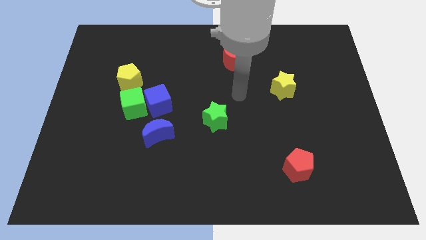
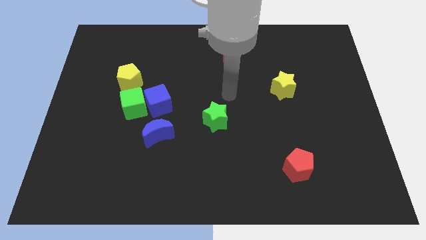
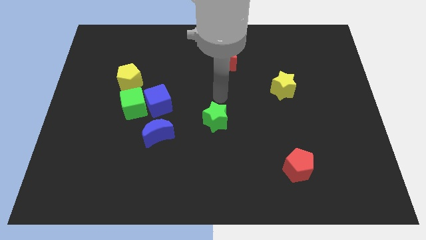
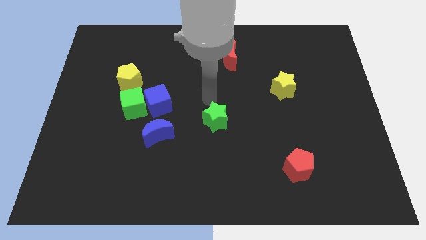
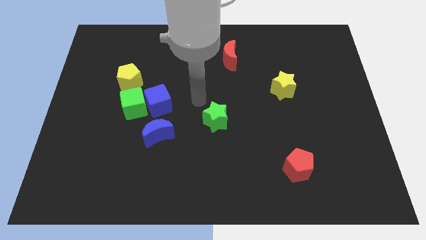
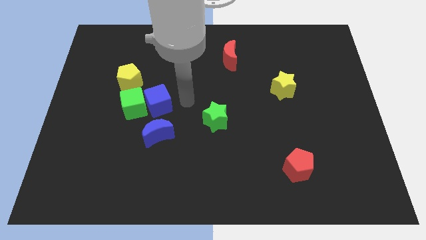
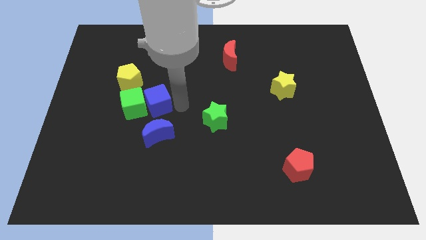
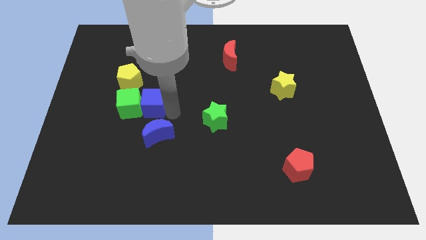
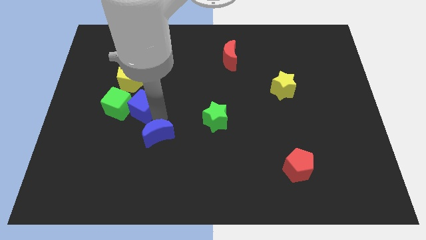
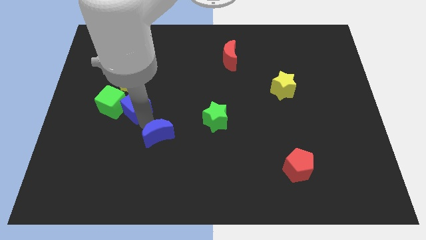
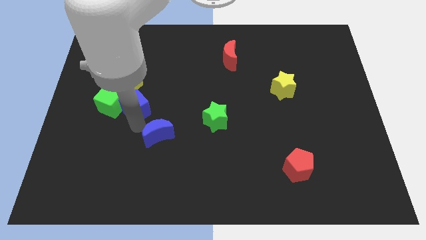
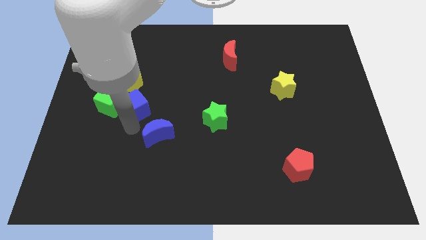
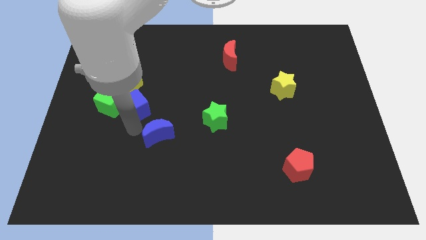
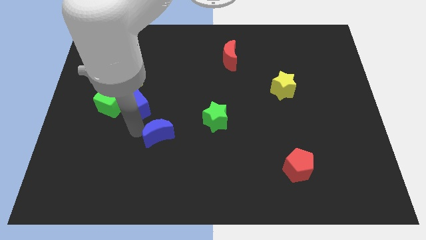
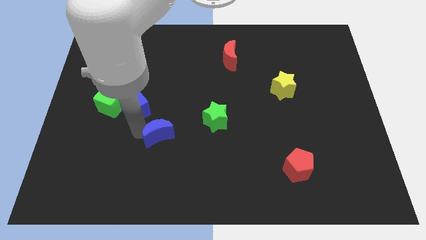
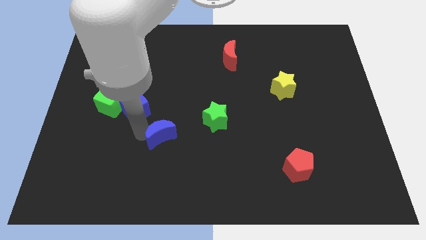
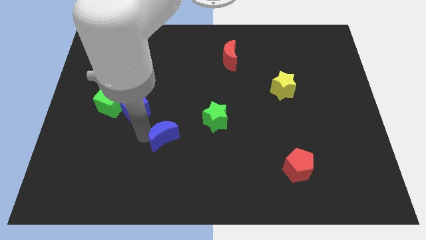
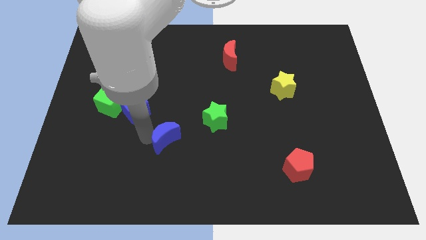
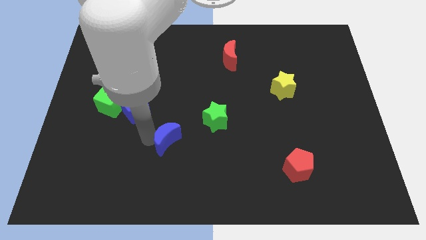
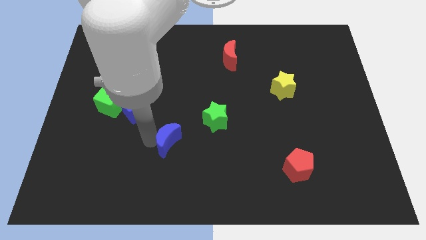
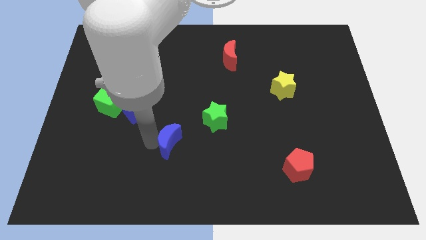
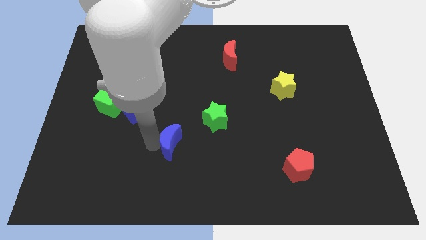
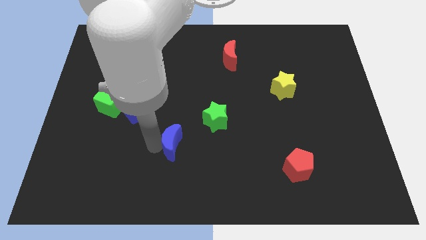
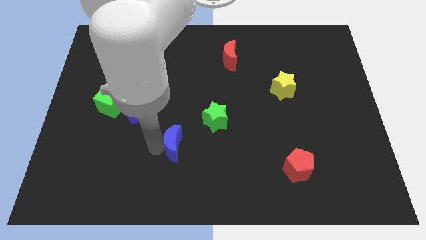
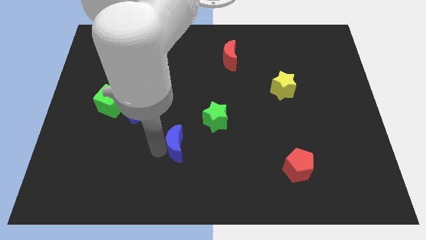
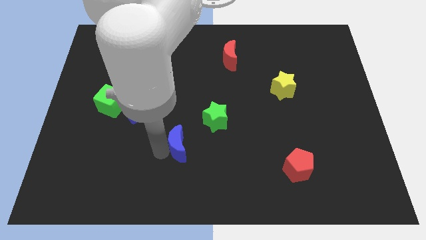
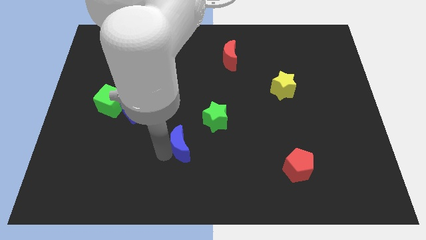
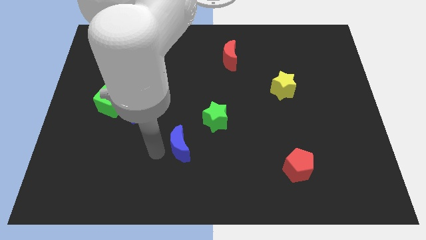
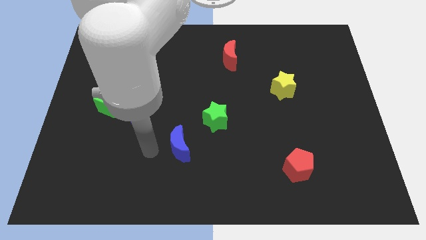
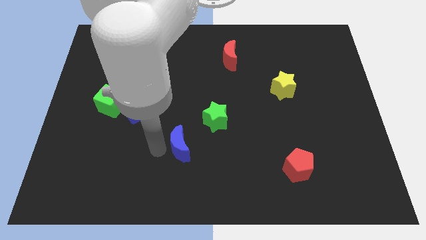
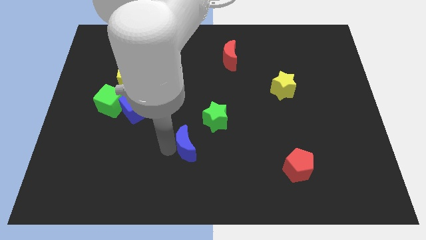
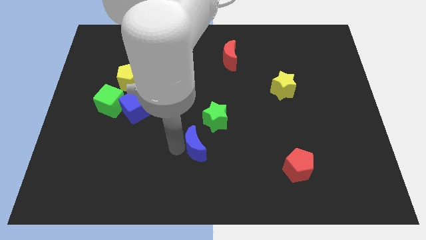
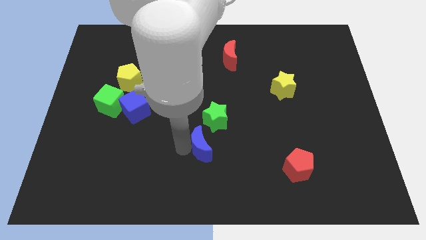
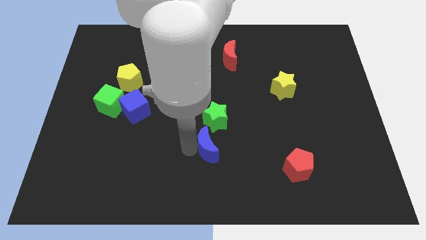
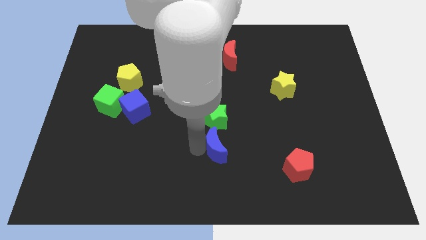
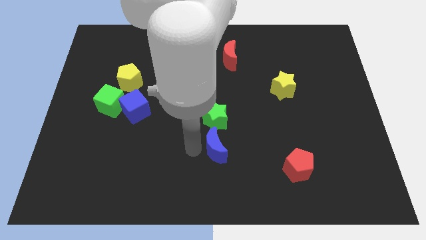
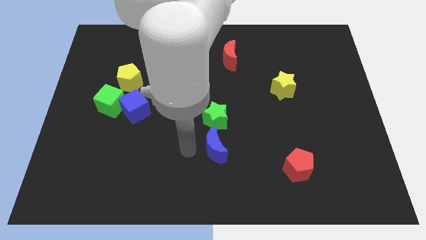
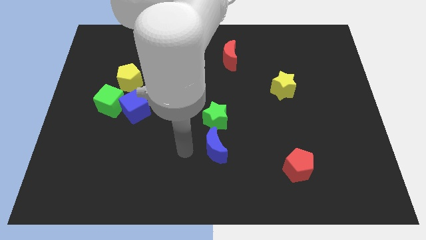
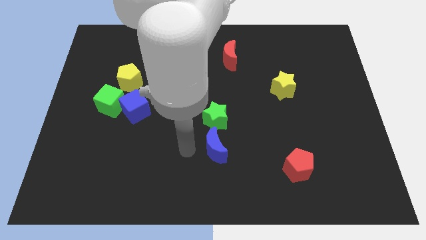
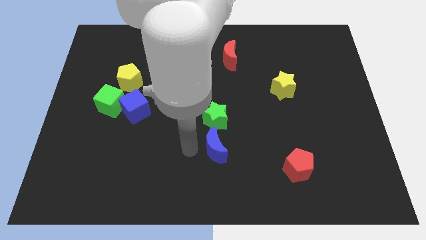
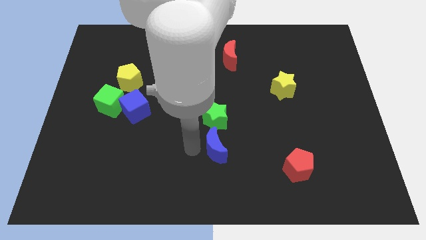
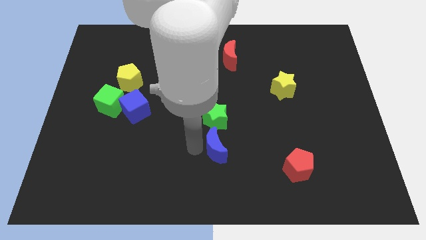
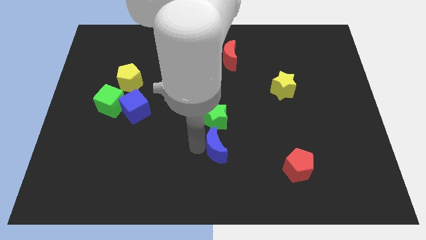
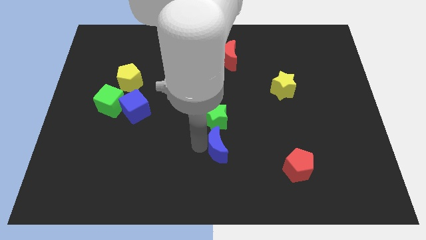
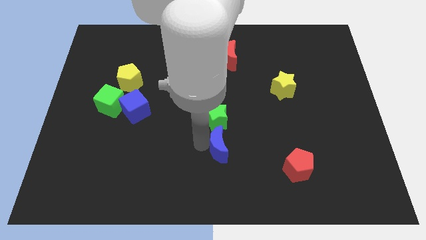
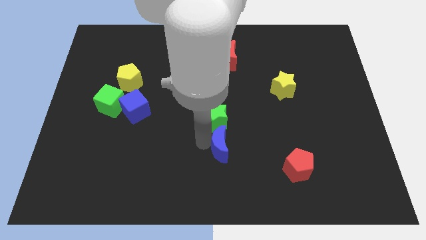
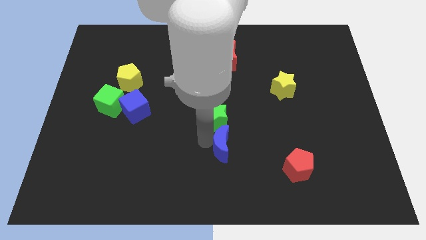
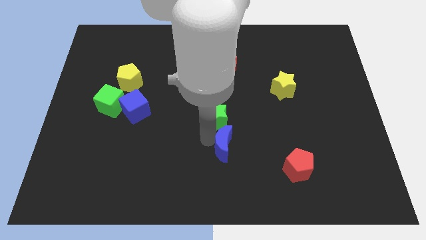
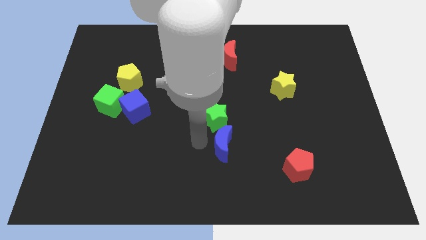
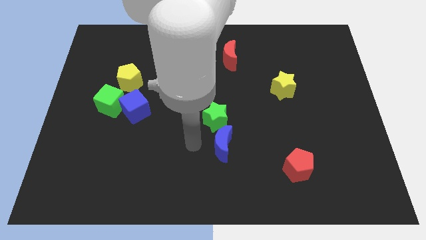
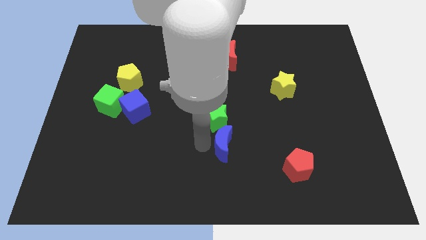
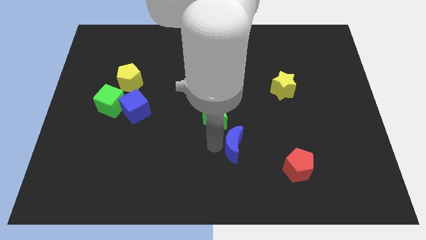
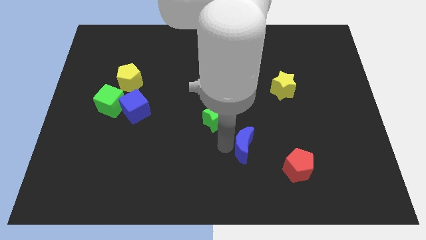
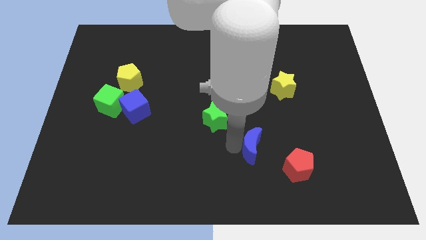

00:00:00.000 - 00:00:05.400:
slide the blue moon diagonally up and to the left of the red pentagon

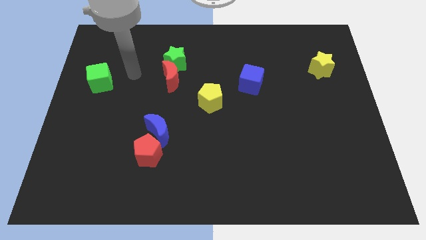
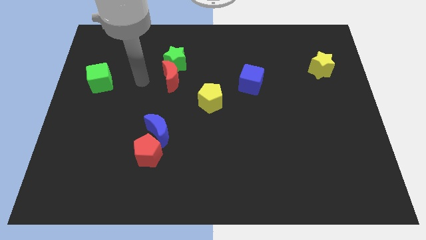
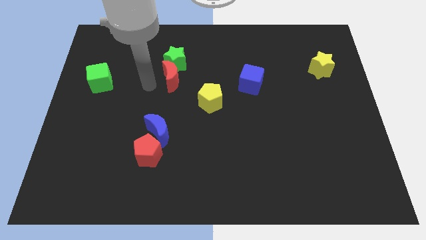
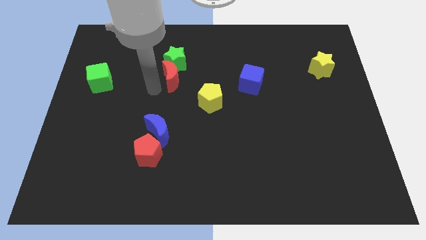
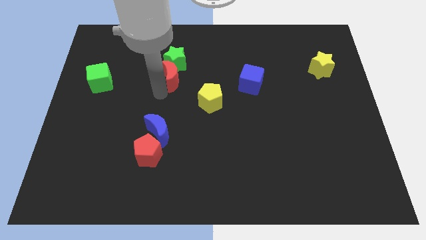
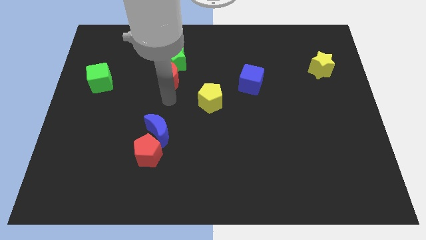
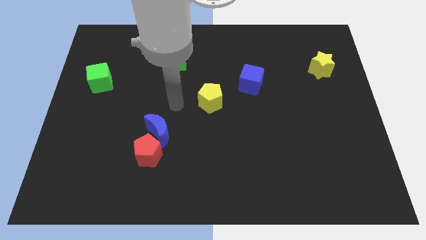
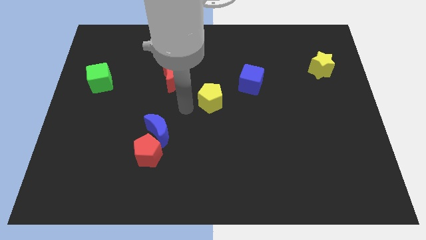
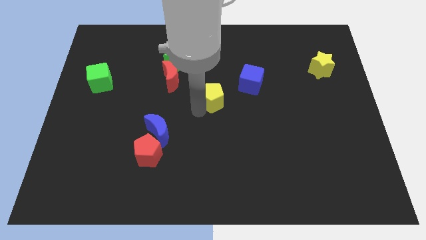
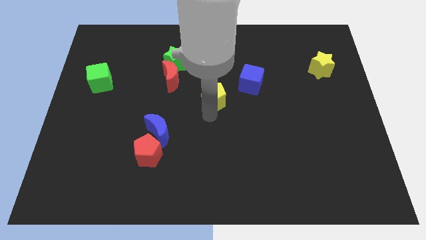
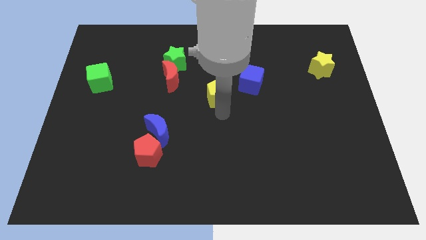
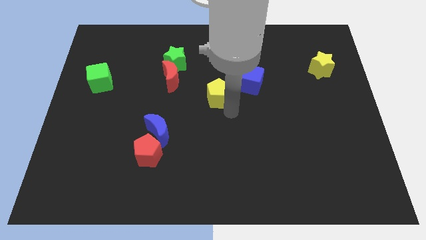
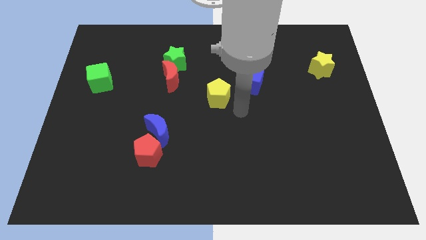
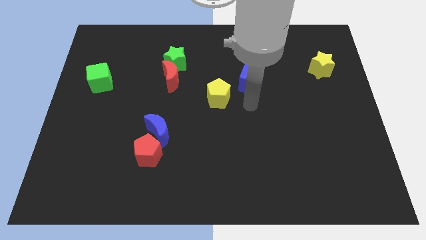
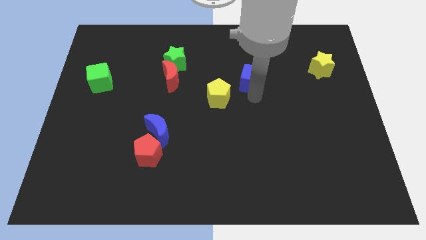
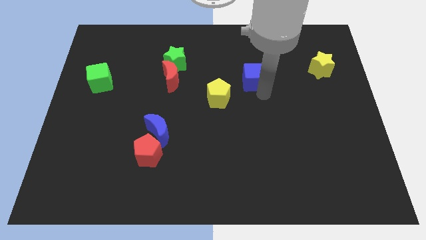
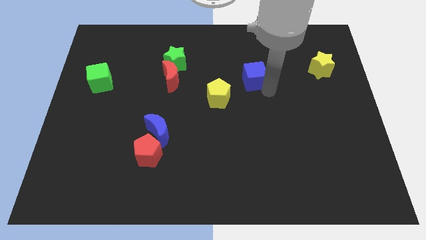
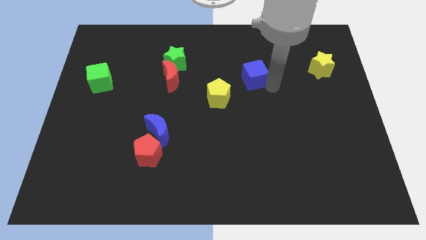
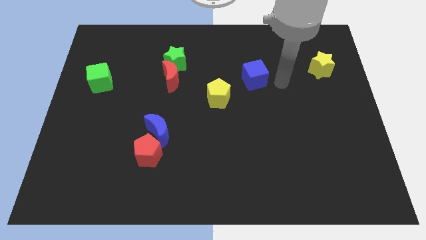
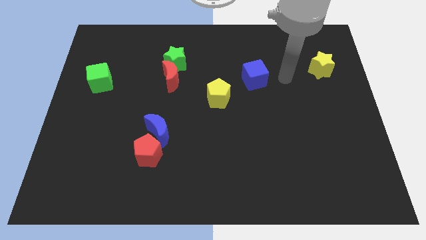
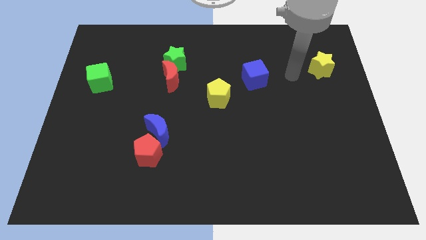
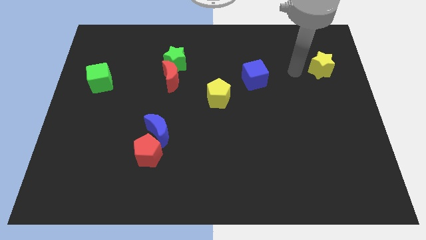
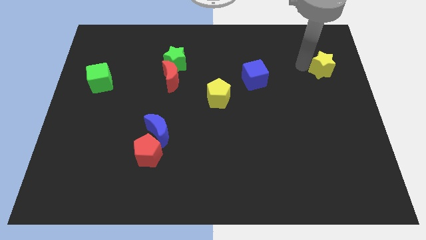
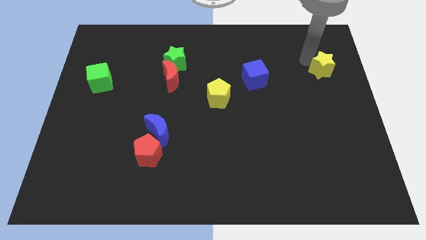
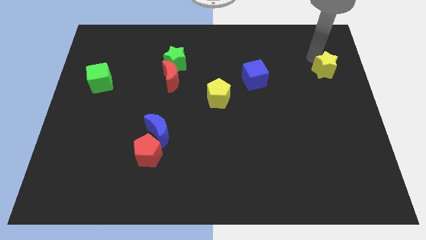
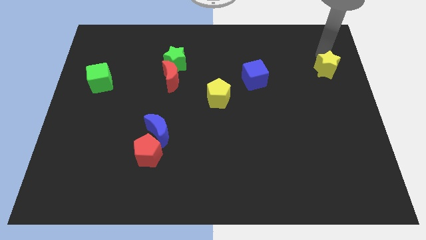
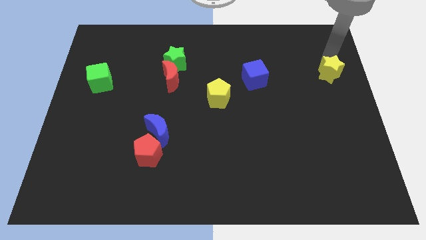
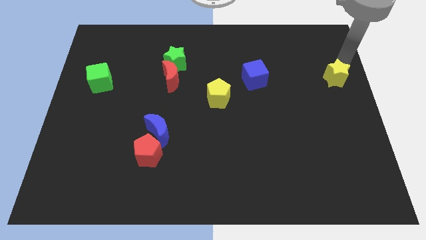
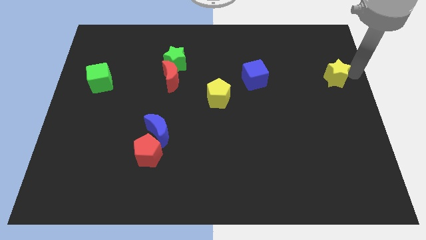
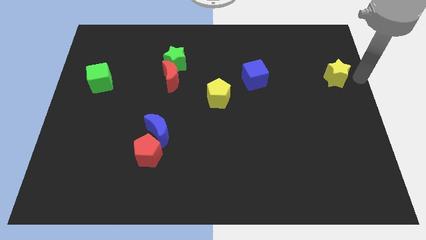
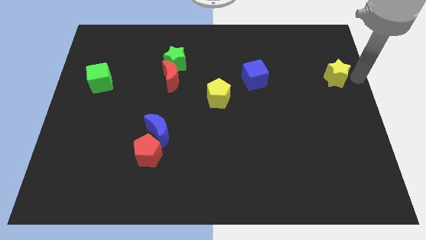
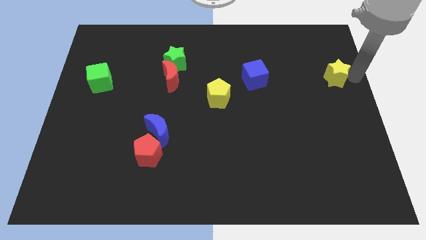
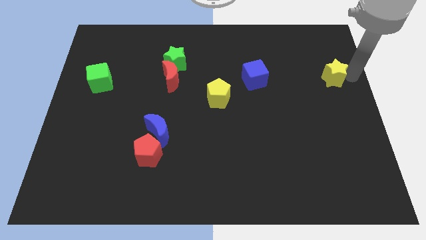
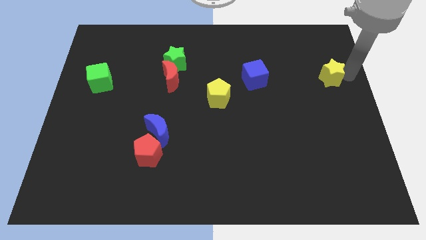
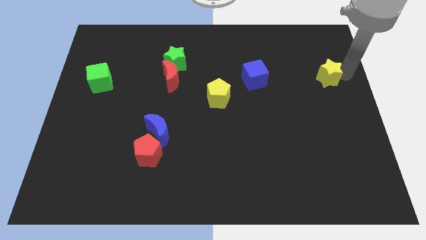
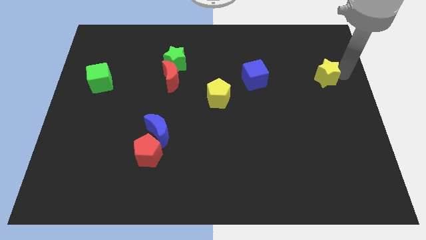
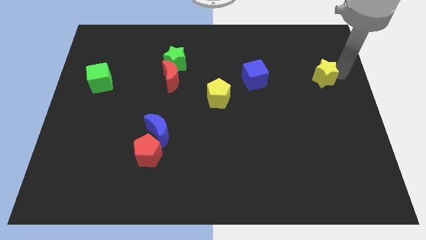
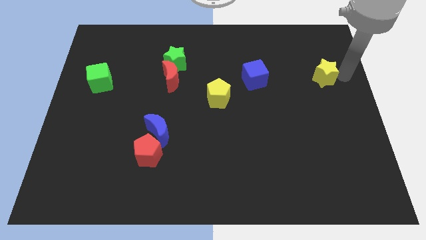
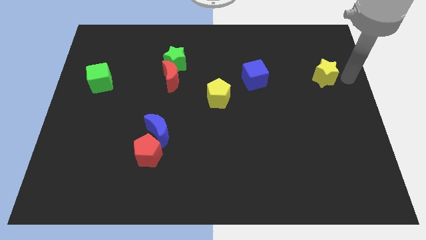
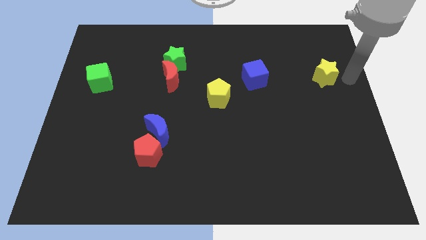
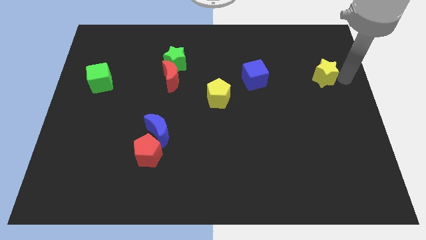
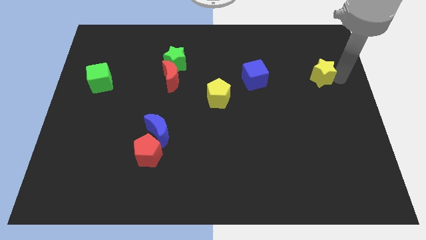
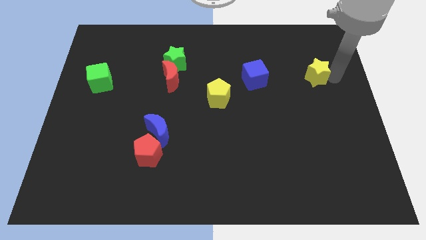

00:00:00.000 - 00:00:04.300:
move the yellow star right of the blue cube
